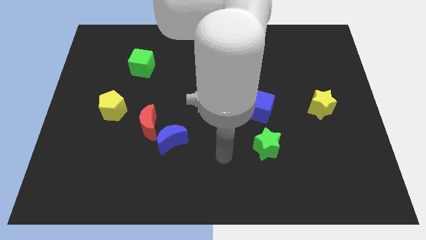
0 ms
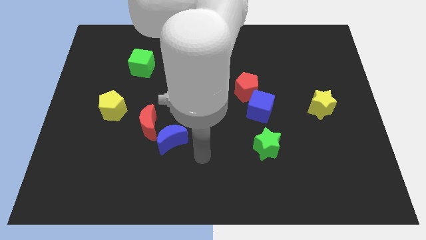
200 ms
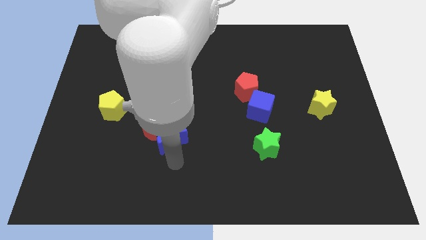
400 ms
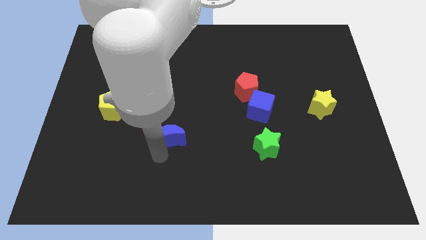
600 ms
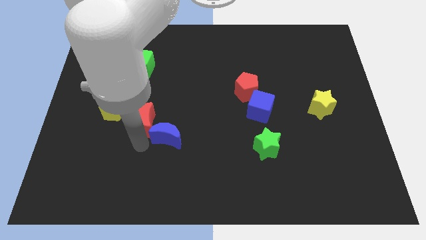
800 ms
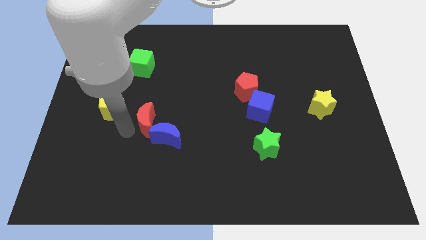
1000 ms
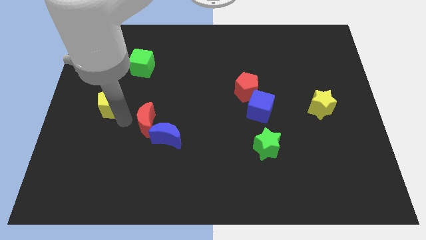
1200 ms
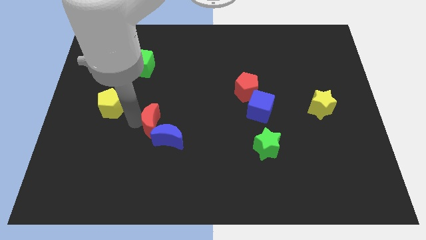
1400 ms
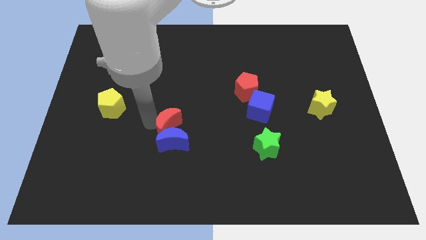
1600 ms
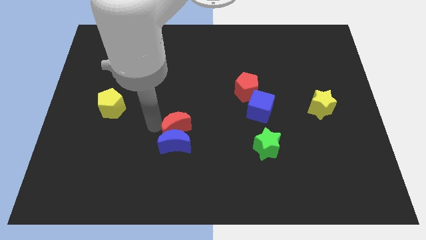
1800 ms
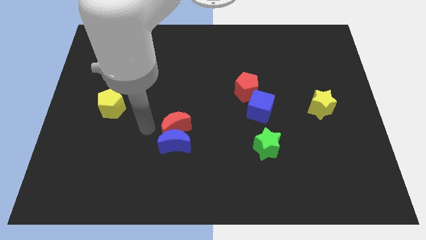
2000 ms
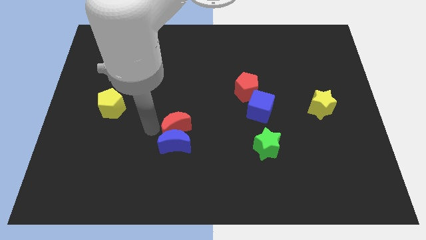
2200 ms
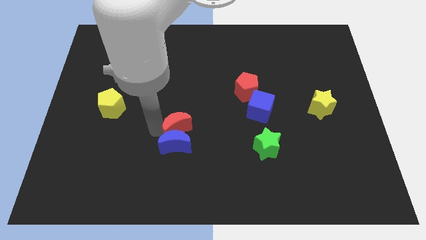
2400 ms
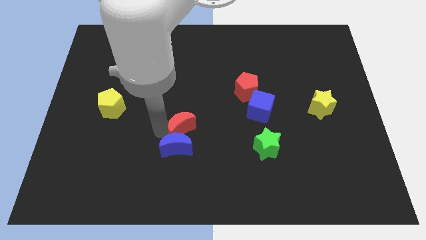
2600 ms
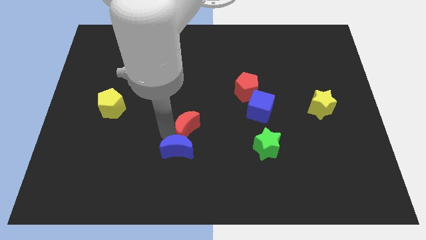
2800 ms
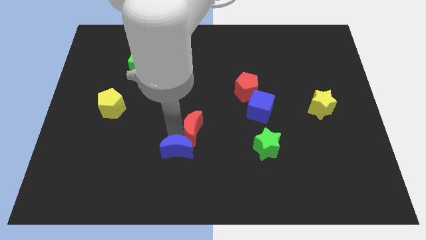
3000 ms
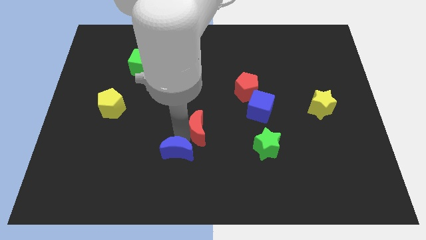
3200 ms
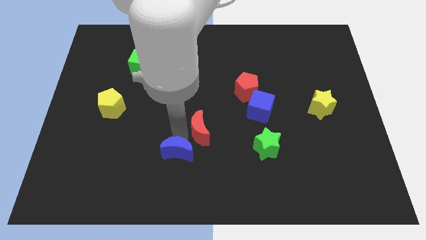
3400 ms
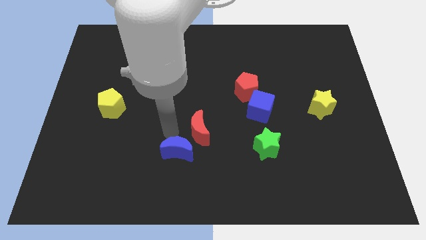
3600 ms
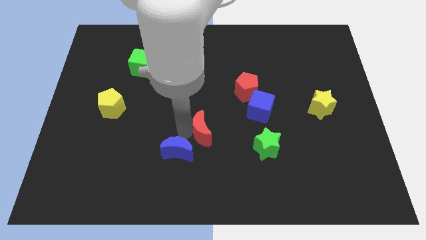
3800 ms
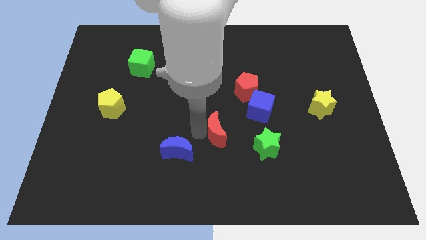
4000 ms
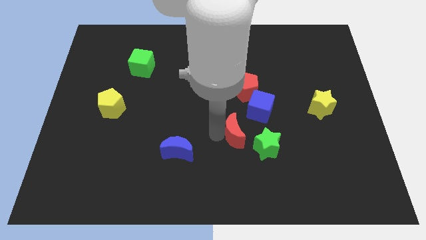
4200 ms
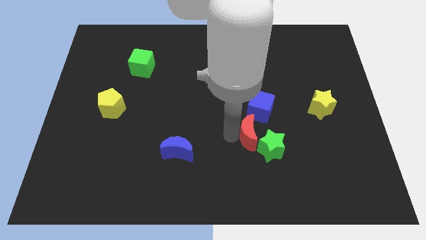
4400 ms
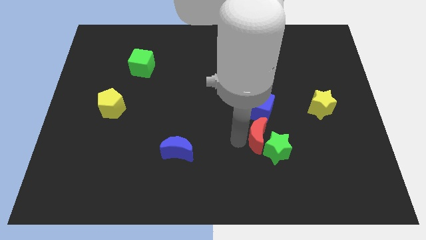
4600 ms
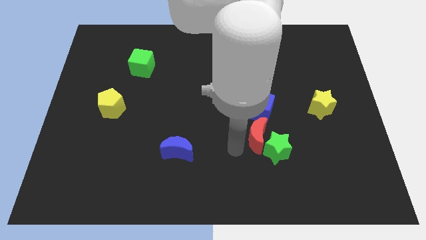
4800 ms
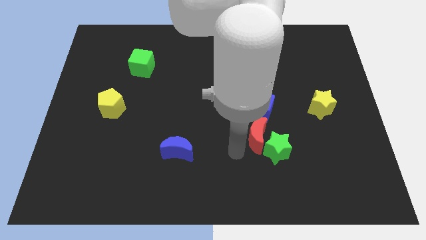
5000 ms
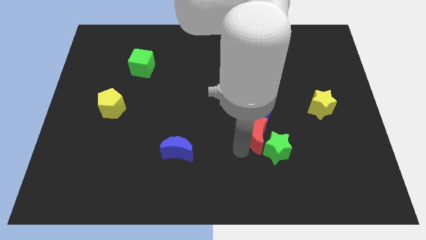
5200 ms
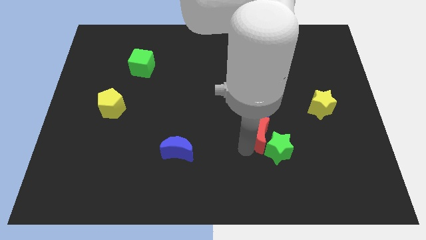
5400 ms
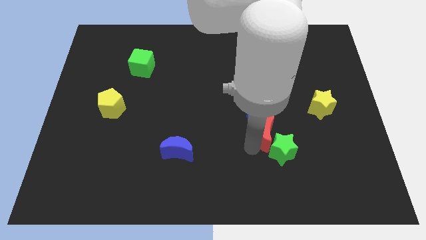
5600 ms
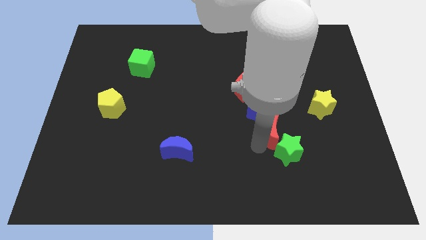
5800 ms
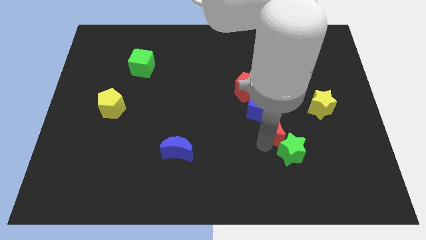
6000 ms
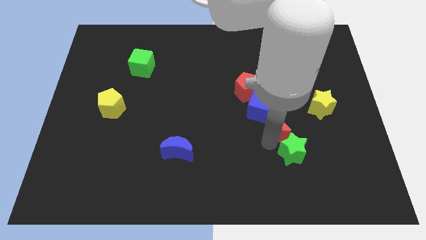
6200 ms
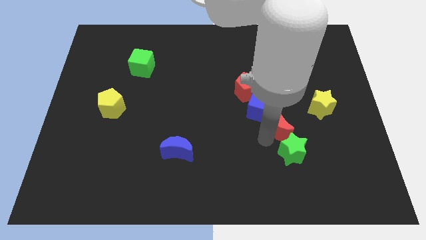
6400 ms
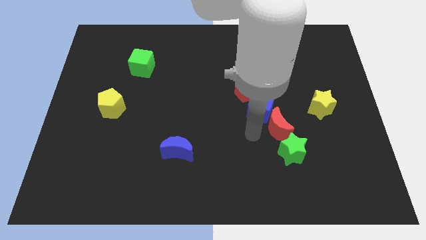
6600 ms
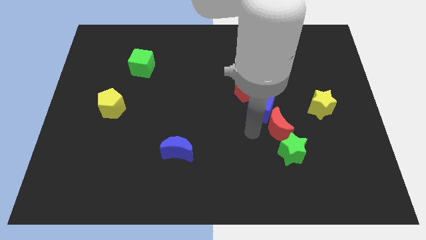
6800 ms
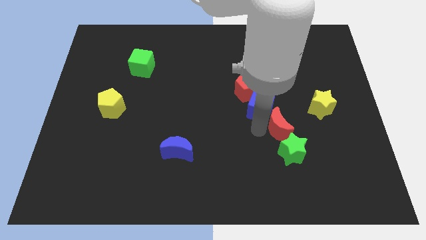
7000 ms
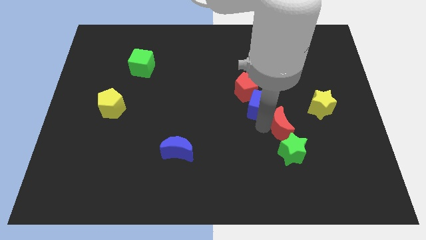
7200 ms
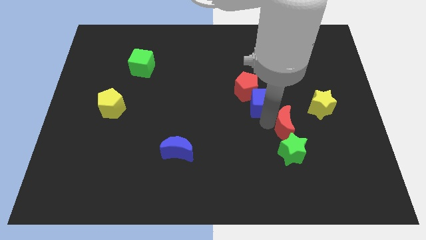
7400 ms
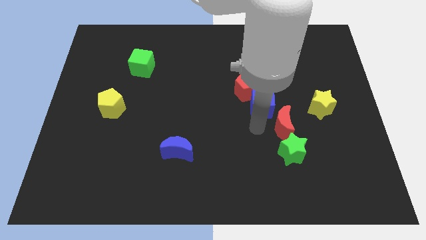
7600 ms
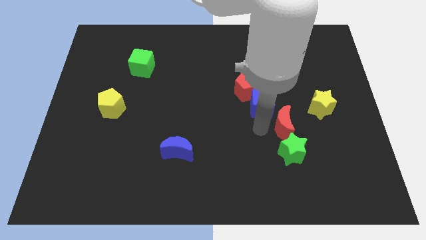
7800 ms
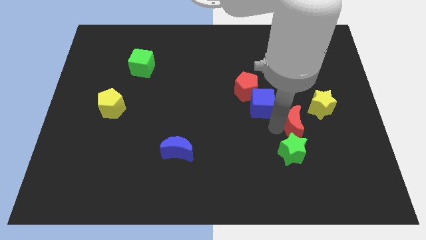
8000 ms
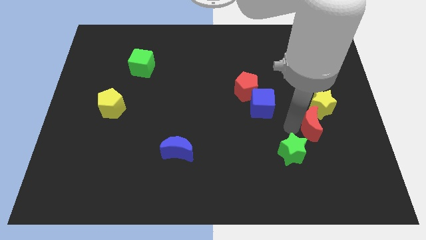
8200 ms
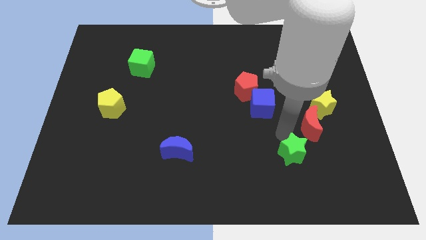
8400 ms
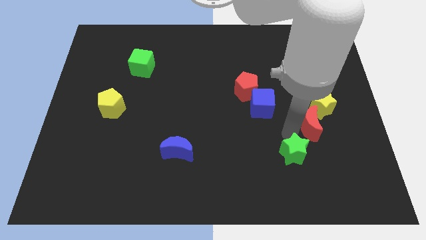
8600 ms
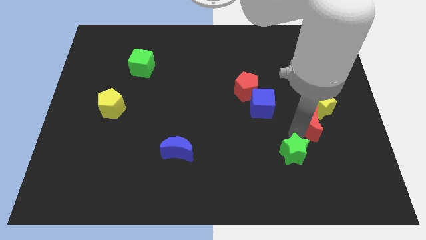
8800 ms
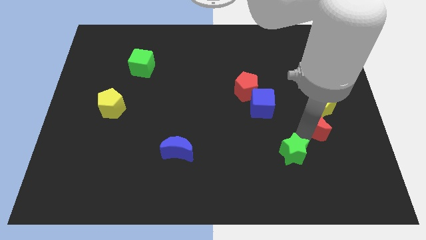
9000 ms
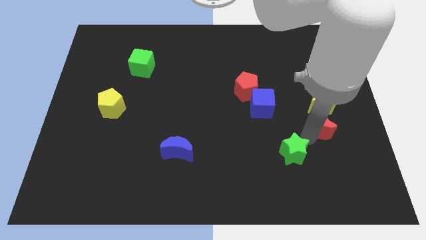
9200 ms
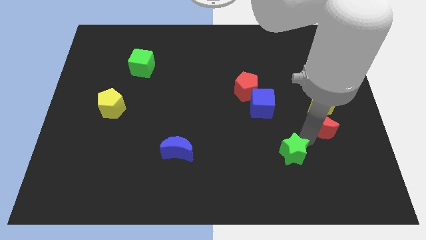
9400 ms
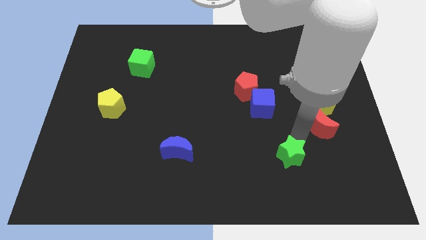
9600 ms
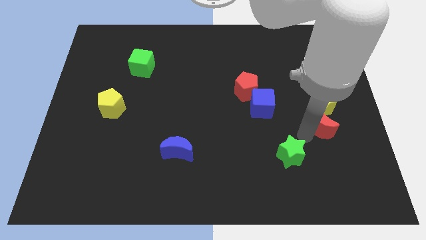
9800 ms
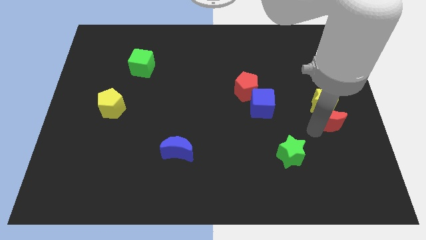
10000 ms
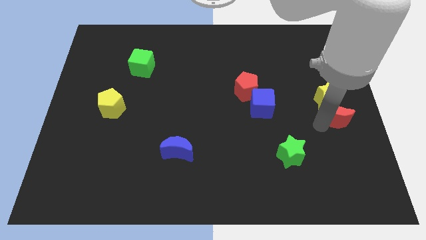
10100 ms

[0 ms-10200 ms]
slide the red moon to the right side of the board

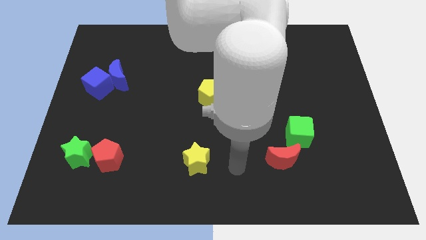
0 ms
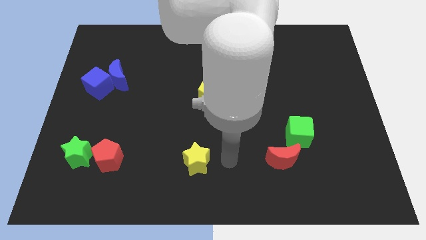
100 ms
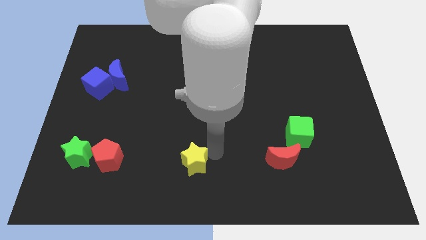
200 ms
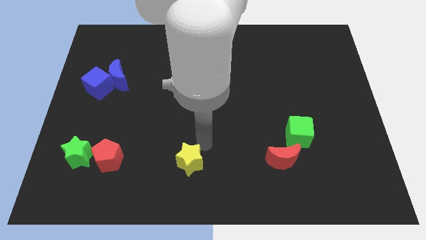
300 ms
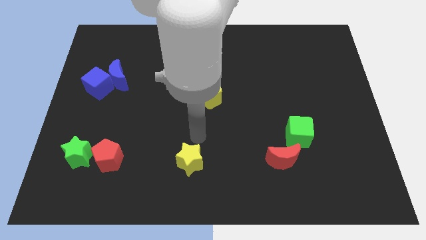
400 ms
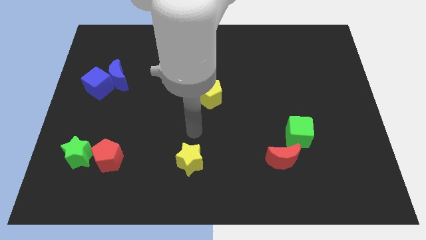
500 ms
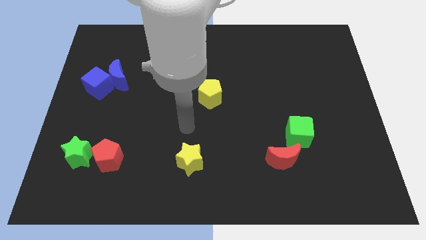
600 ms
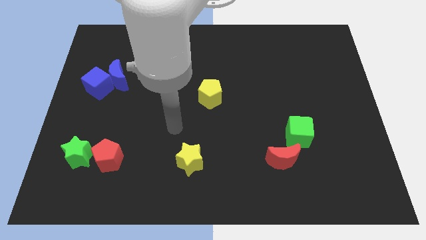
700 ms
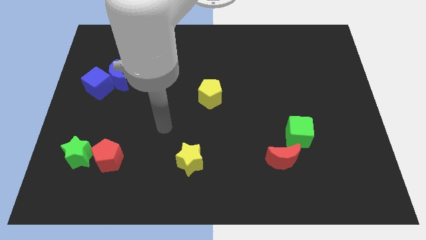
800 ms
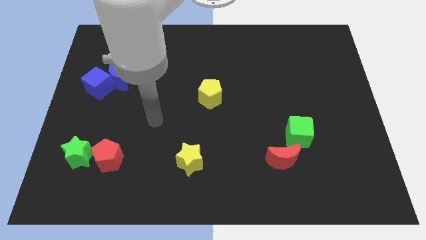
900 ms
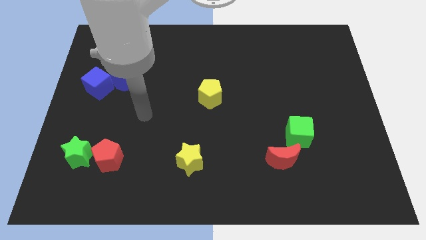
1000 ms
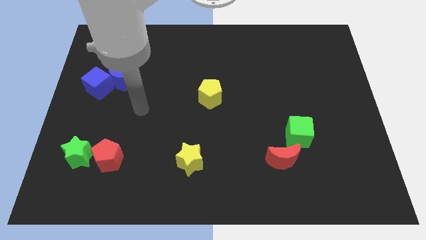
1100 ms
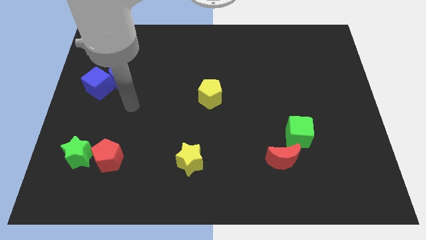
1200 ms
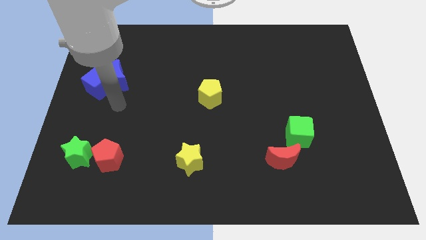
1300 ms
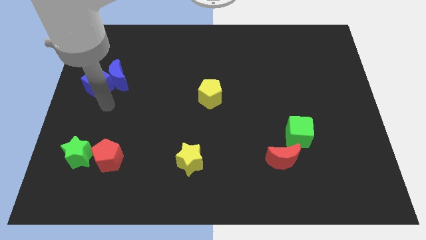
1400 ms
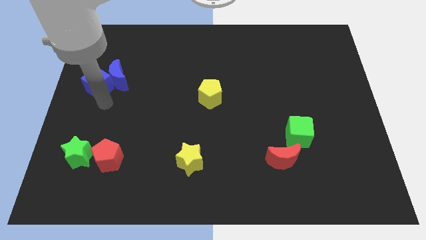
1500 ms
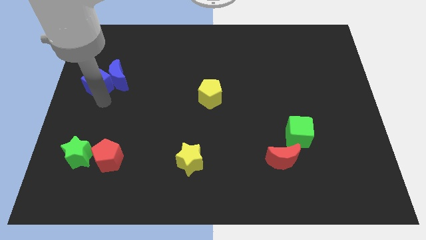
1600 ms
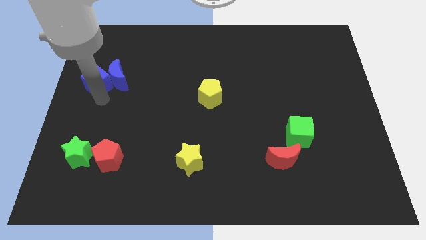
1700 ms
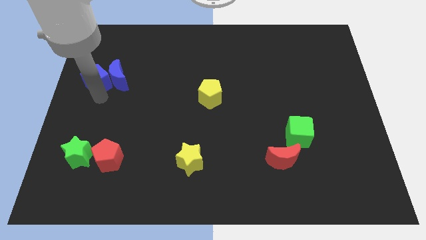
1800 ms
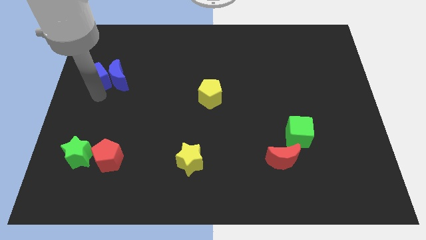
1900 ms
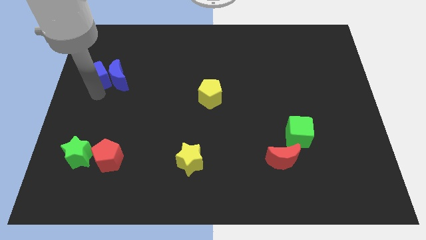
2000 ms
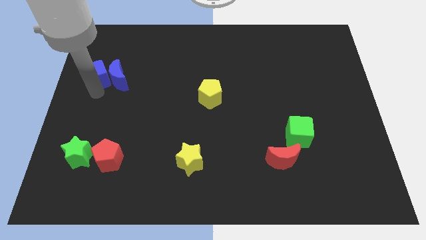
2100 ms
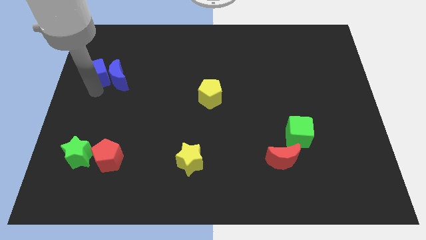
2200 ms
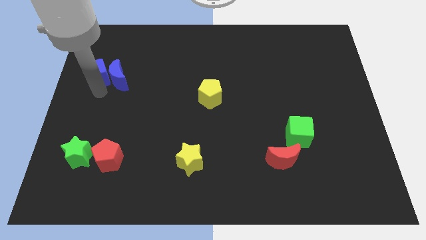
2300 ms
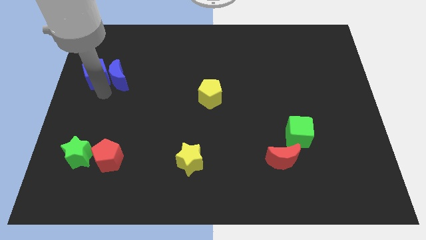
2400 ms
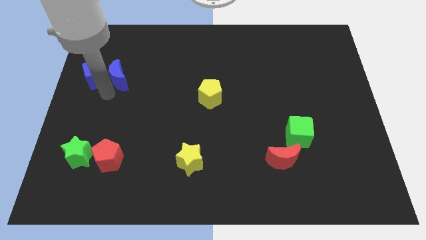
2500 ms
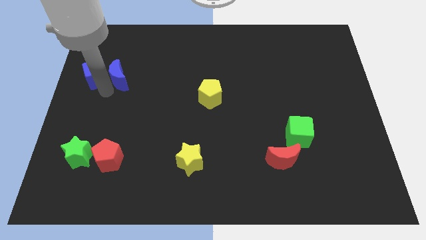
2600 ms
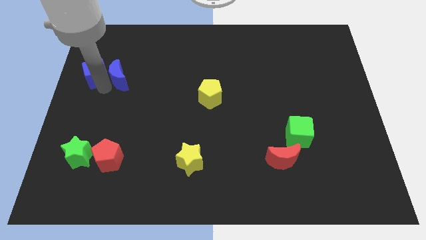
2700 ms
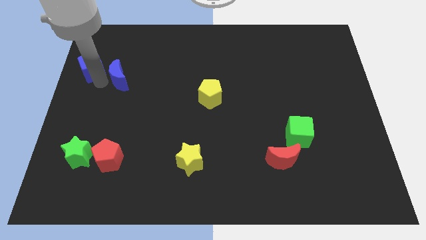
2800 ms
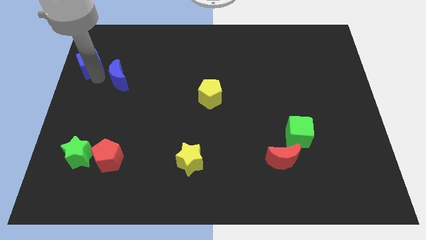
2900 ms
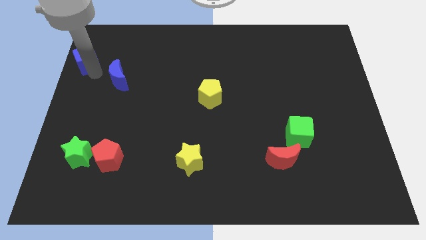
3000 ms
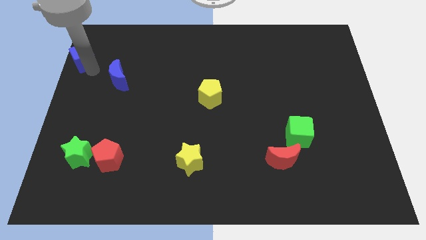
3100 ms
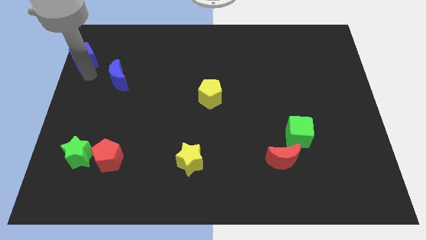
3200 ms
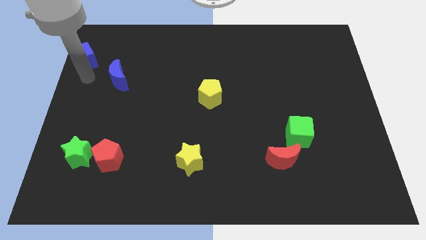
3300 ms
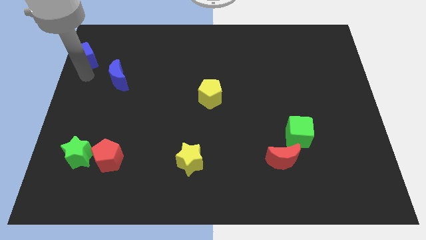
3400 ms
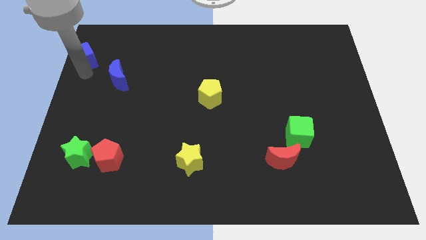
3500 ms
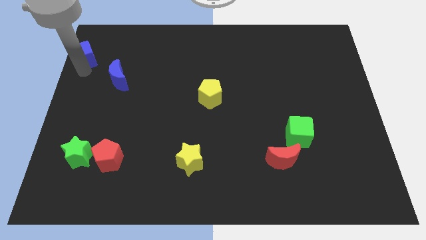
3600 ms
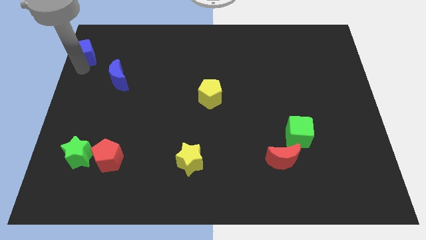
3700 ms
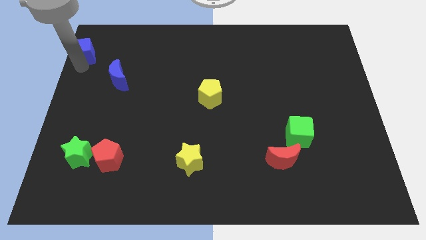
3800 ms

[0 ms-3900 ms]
slide the blue cube to the top left corner
